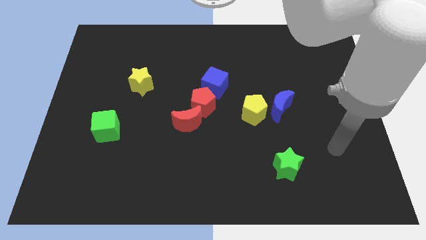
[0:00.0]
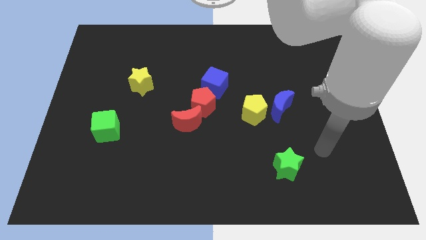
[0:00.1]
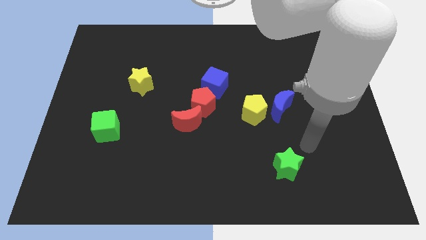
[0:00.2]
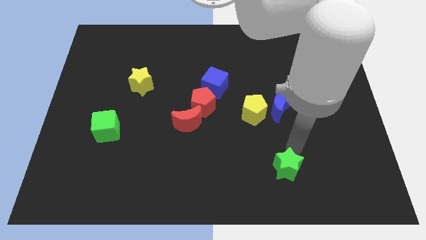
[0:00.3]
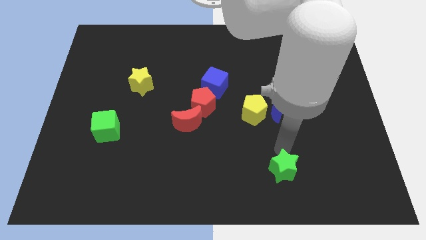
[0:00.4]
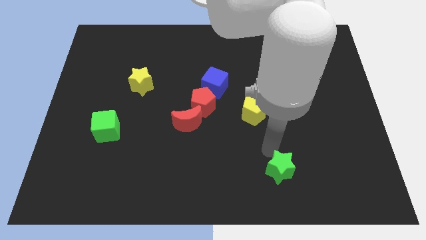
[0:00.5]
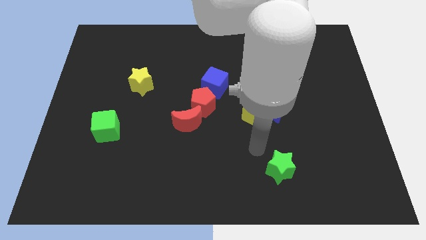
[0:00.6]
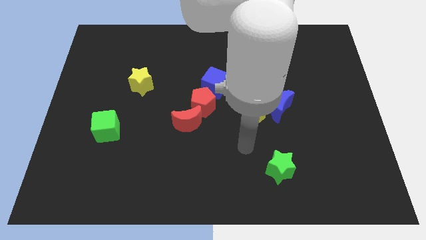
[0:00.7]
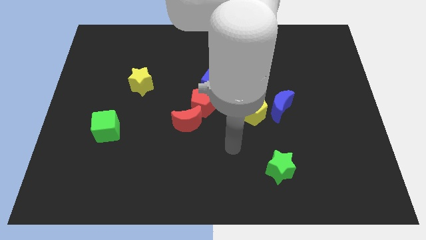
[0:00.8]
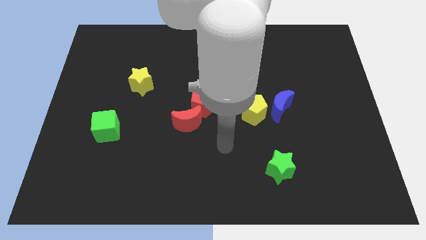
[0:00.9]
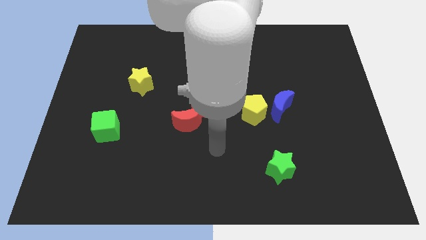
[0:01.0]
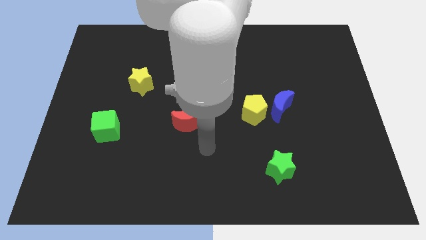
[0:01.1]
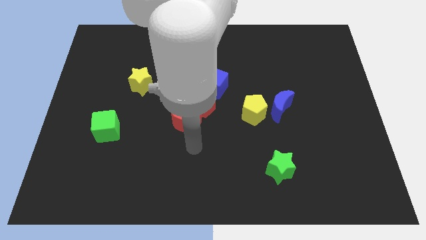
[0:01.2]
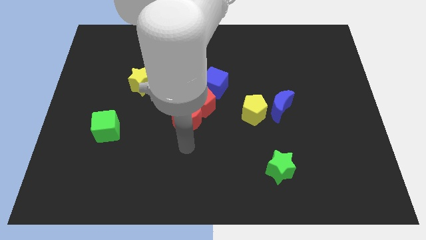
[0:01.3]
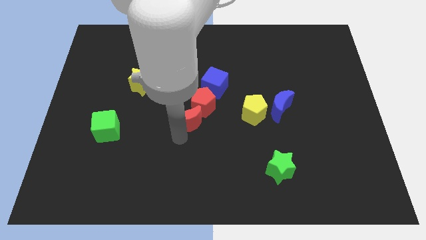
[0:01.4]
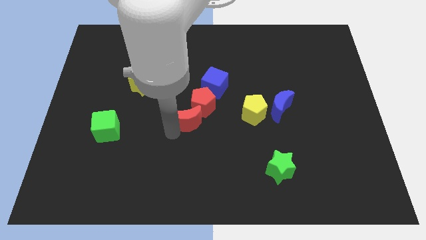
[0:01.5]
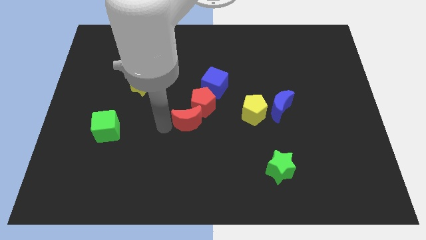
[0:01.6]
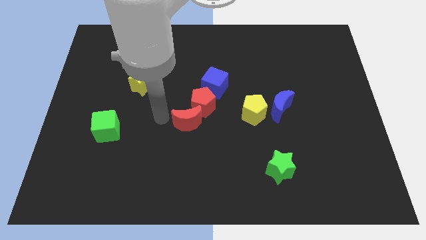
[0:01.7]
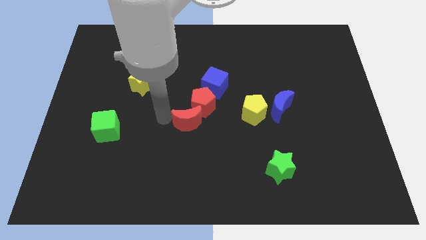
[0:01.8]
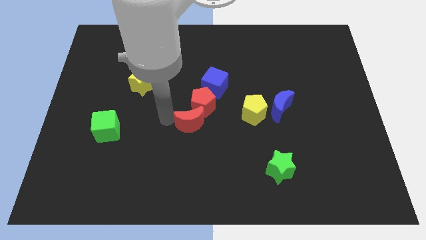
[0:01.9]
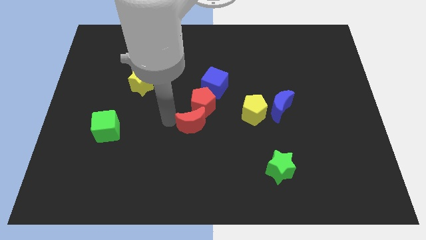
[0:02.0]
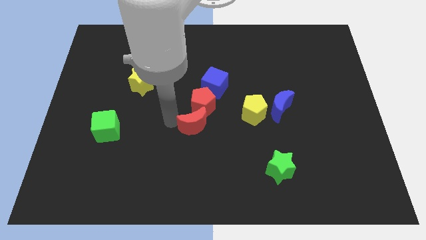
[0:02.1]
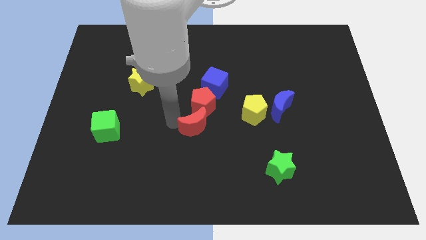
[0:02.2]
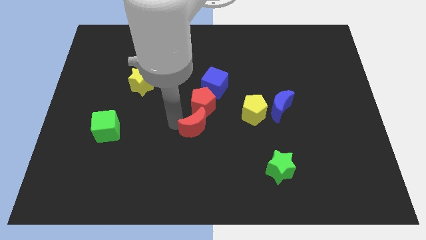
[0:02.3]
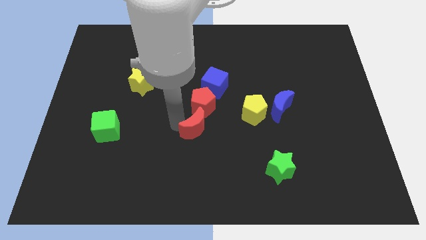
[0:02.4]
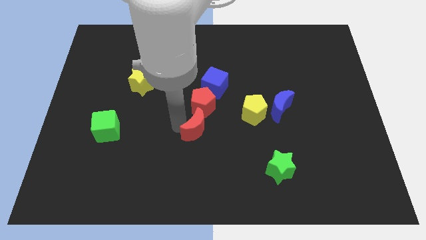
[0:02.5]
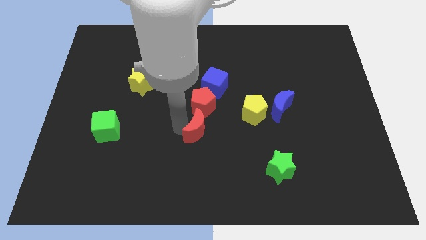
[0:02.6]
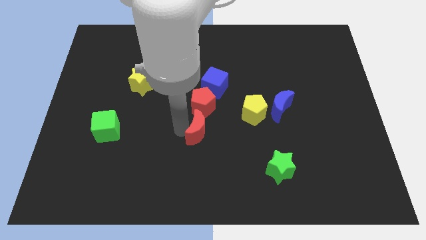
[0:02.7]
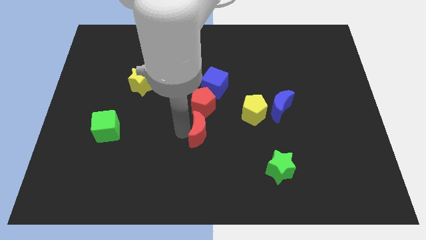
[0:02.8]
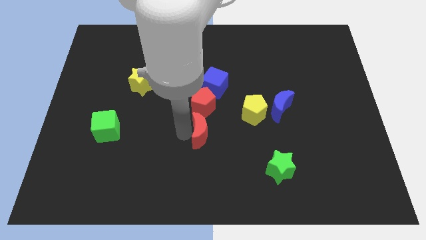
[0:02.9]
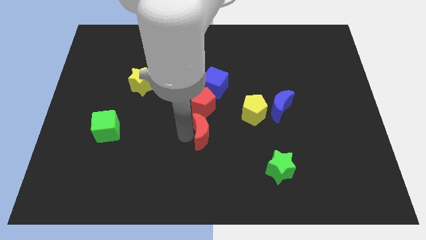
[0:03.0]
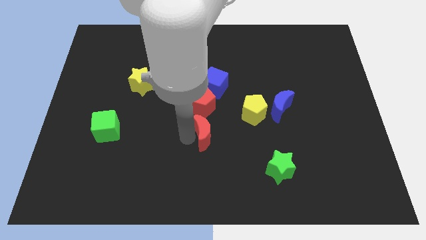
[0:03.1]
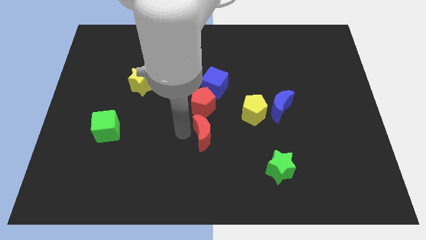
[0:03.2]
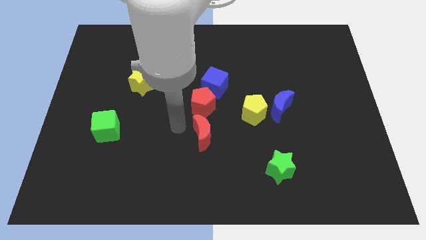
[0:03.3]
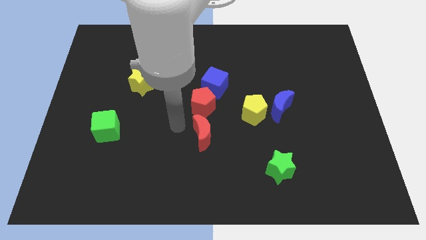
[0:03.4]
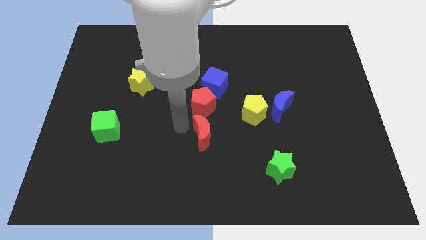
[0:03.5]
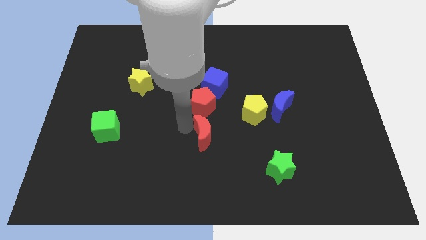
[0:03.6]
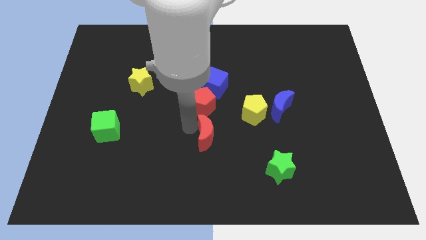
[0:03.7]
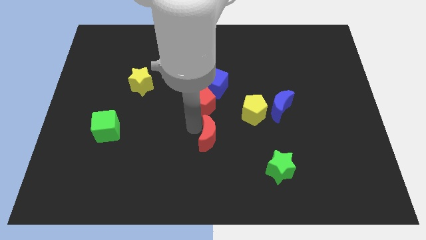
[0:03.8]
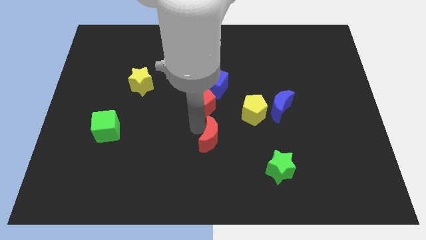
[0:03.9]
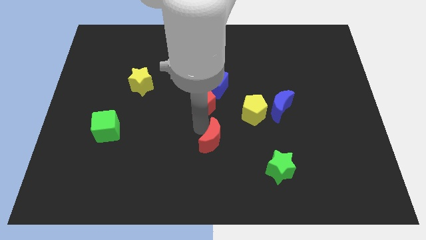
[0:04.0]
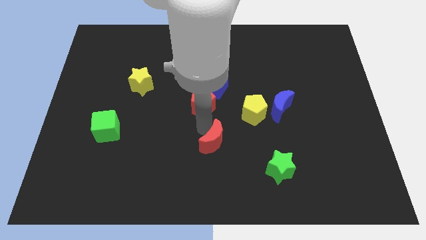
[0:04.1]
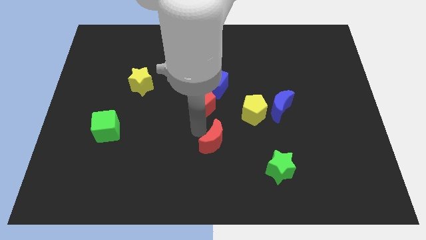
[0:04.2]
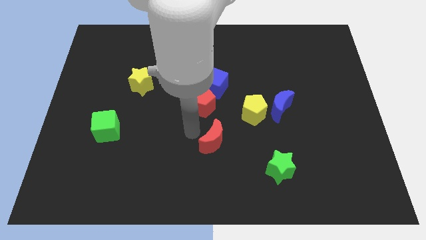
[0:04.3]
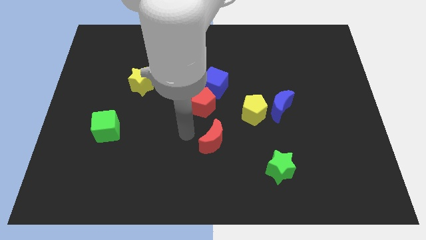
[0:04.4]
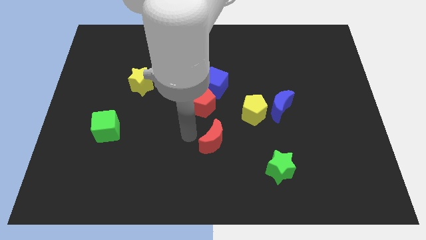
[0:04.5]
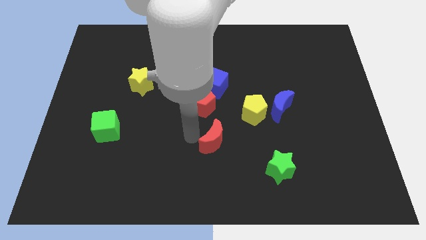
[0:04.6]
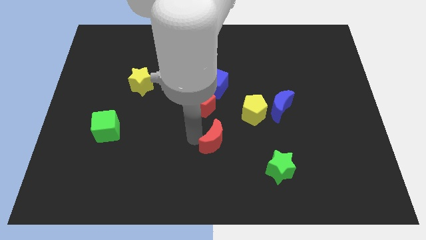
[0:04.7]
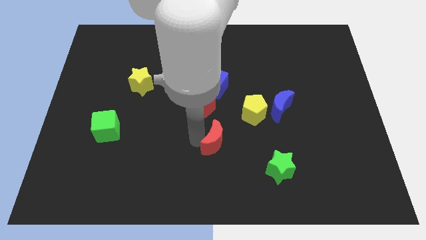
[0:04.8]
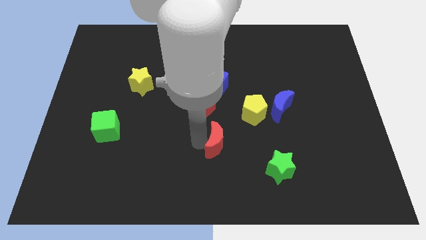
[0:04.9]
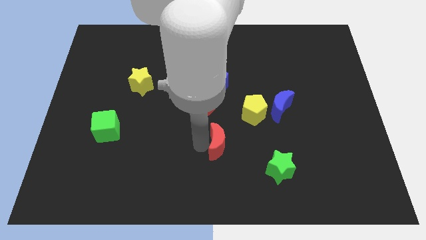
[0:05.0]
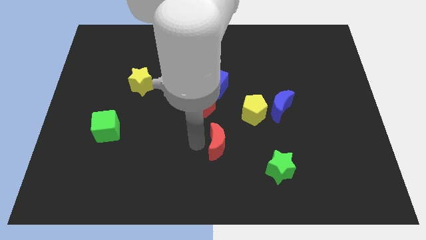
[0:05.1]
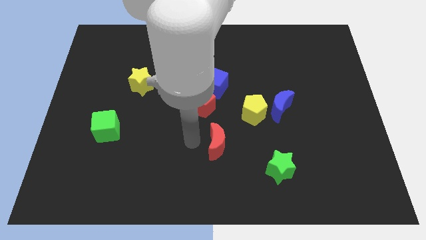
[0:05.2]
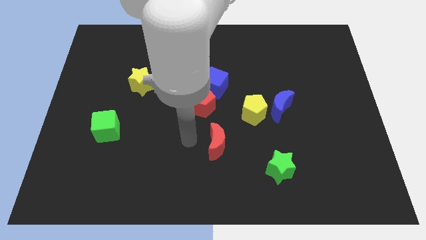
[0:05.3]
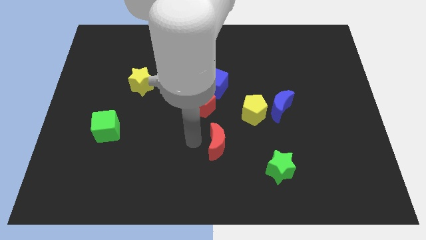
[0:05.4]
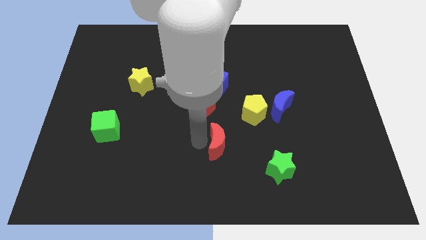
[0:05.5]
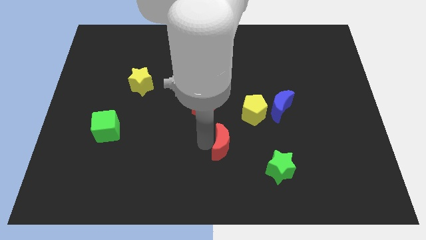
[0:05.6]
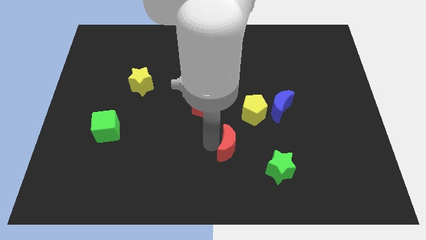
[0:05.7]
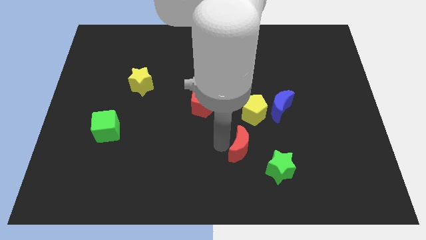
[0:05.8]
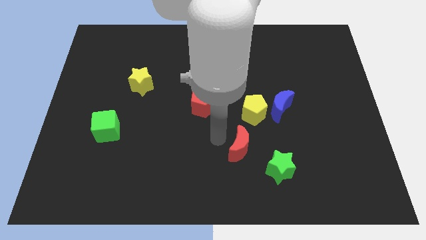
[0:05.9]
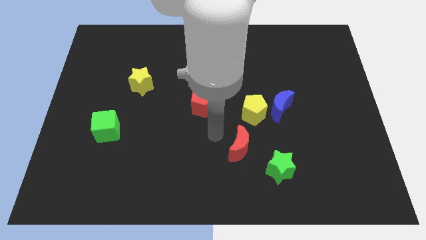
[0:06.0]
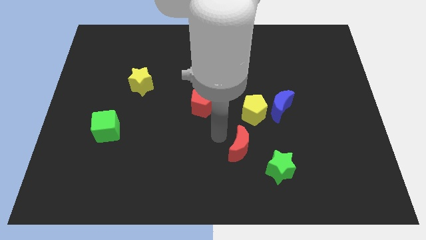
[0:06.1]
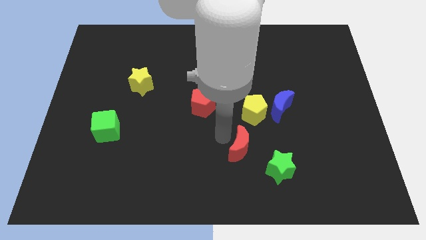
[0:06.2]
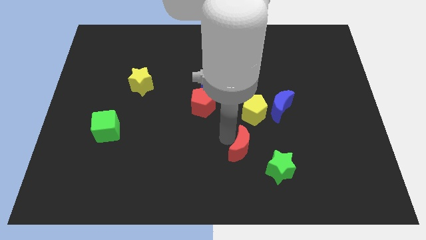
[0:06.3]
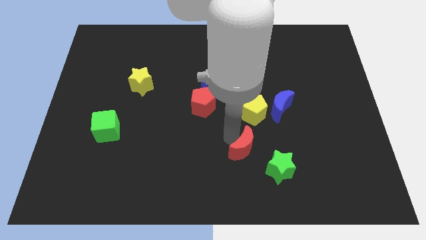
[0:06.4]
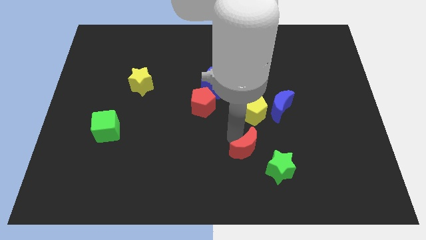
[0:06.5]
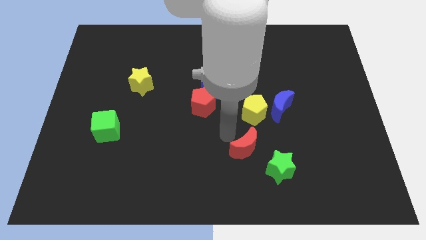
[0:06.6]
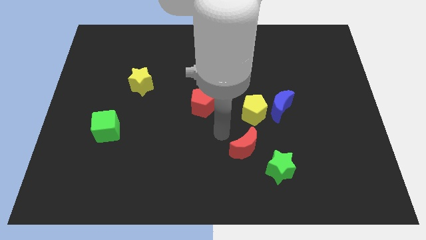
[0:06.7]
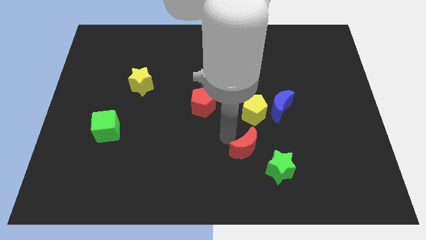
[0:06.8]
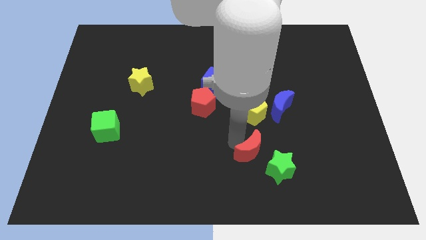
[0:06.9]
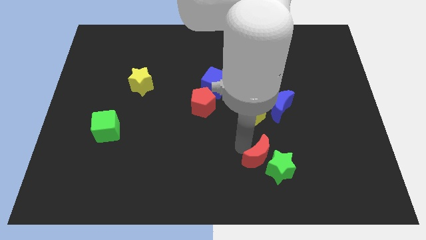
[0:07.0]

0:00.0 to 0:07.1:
slide the red moon towards the green star
